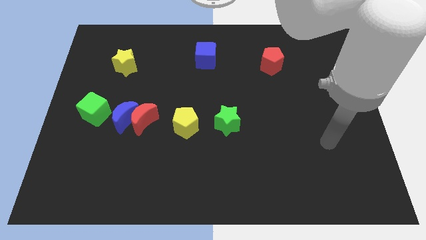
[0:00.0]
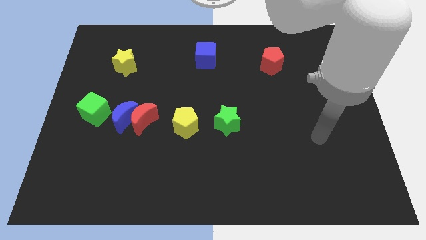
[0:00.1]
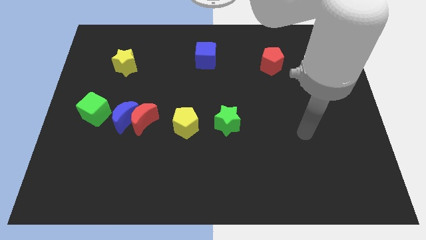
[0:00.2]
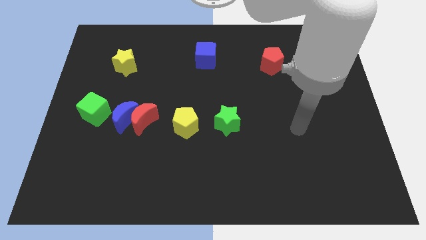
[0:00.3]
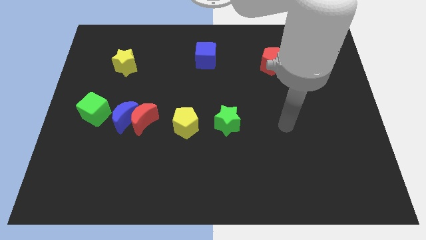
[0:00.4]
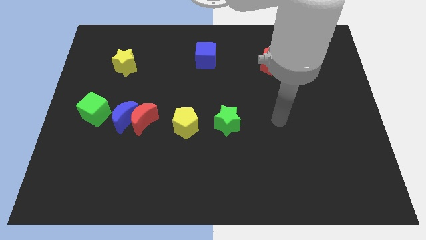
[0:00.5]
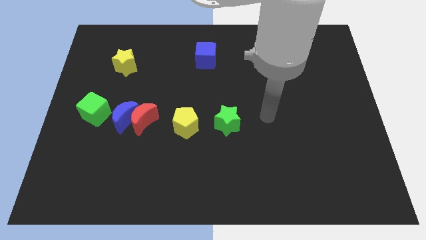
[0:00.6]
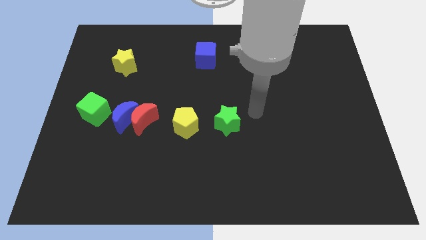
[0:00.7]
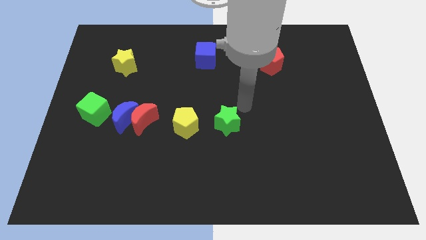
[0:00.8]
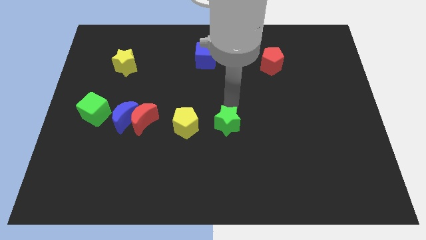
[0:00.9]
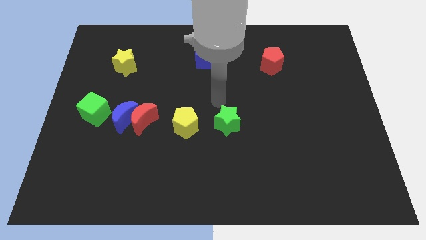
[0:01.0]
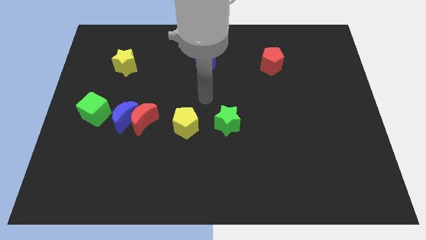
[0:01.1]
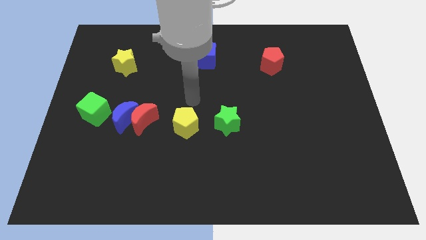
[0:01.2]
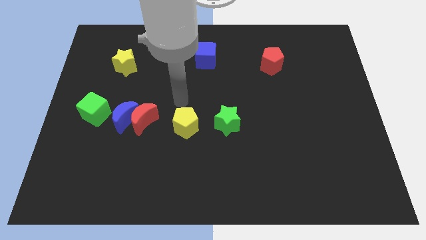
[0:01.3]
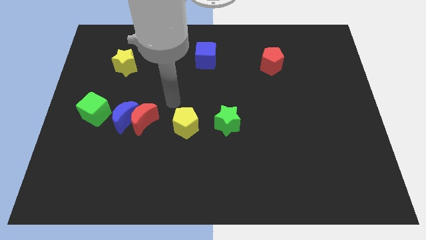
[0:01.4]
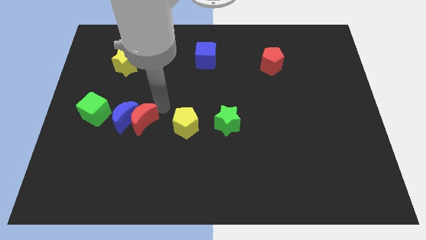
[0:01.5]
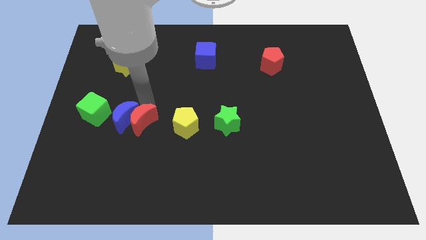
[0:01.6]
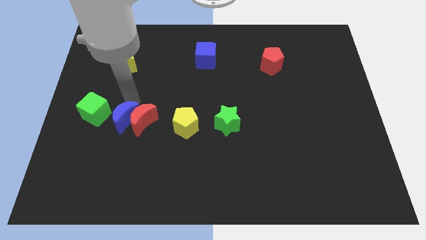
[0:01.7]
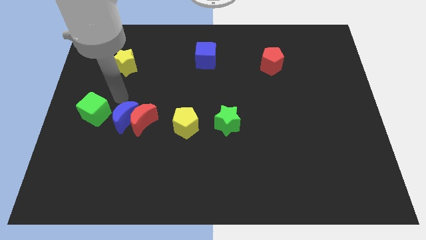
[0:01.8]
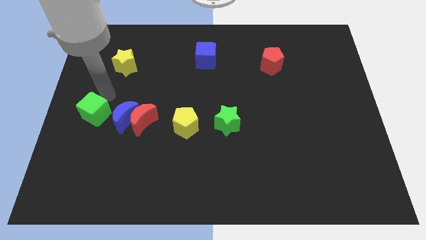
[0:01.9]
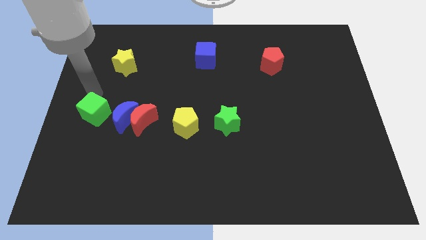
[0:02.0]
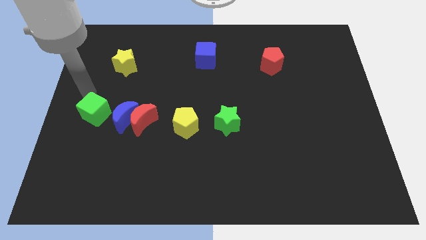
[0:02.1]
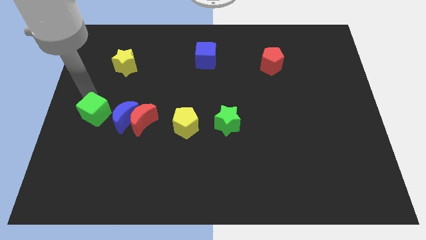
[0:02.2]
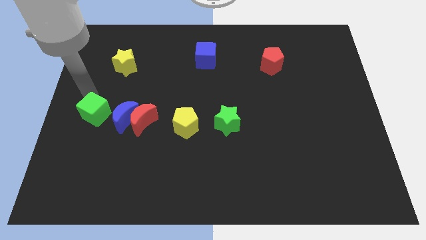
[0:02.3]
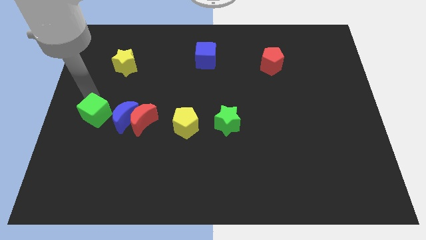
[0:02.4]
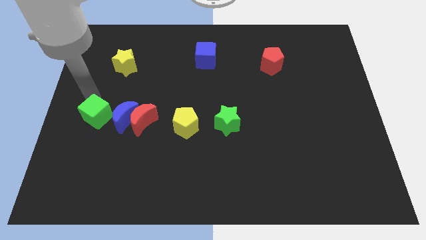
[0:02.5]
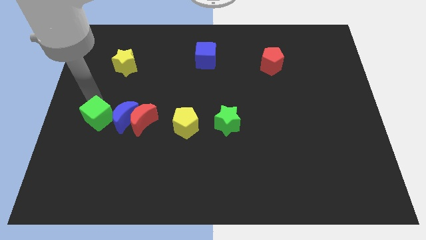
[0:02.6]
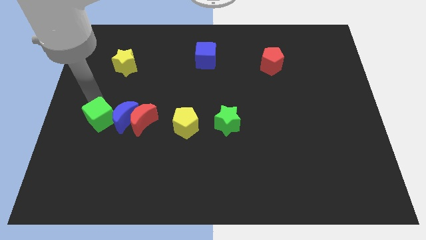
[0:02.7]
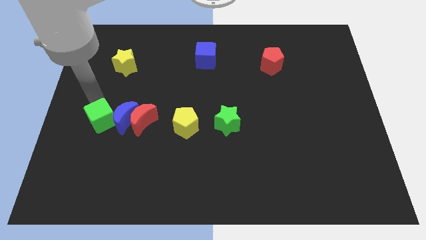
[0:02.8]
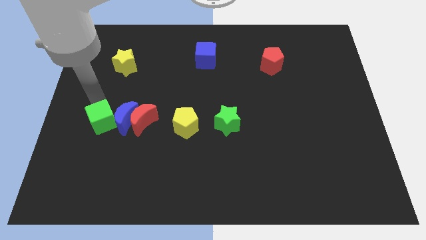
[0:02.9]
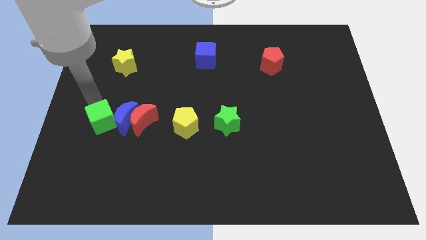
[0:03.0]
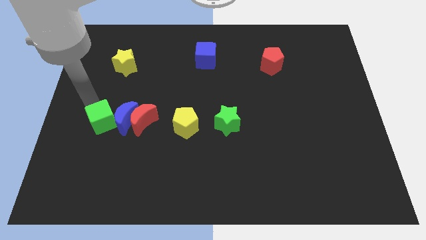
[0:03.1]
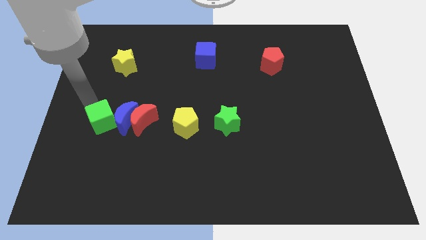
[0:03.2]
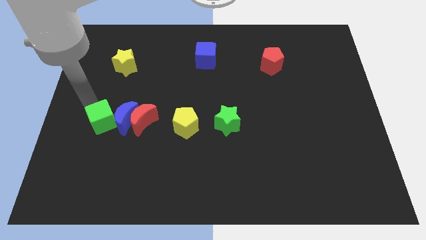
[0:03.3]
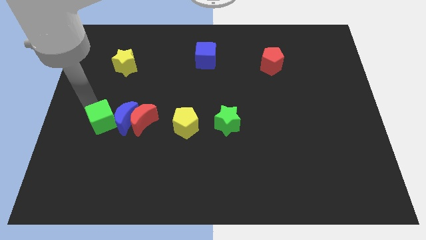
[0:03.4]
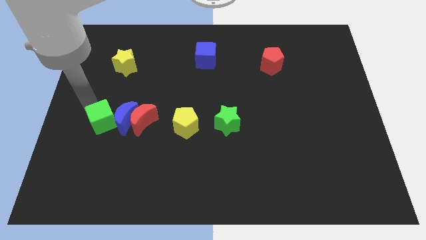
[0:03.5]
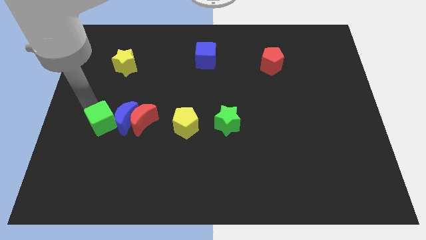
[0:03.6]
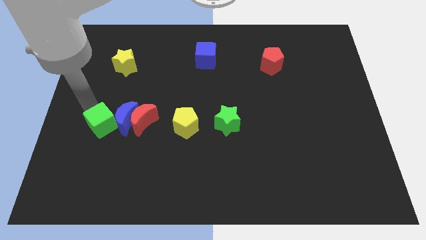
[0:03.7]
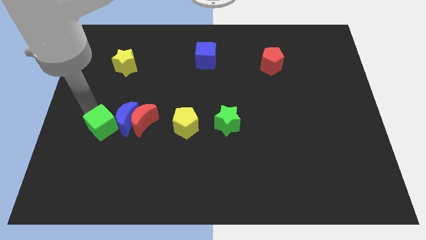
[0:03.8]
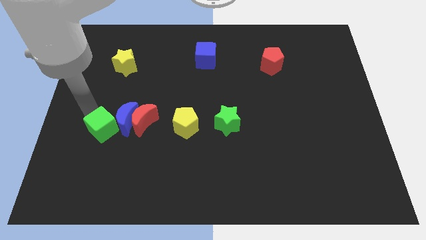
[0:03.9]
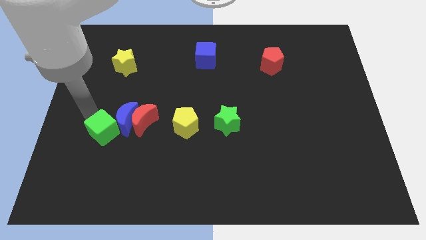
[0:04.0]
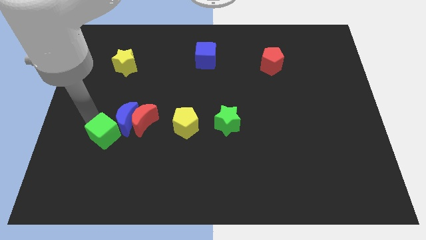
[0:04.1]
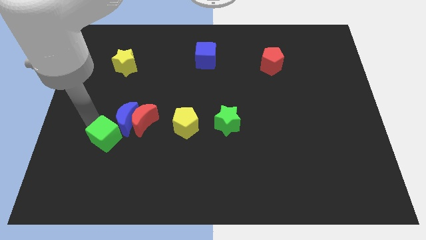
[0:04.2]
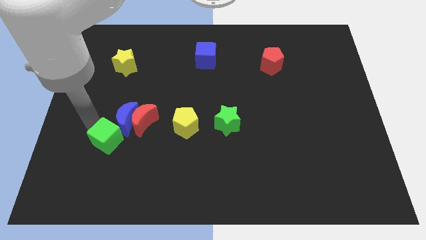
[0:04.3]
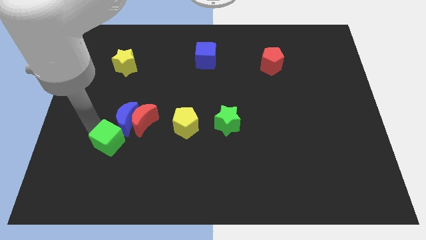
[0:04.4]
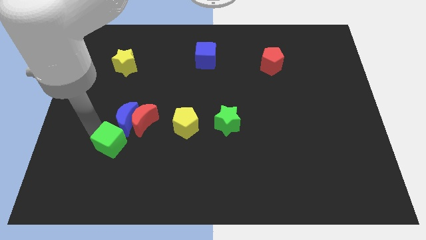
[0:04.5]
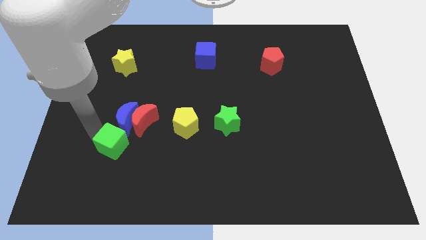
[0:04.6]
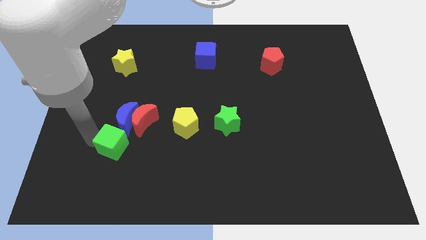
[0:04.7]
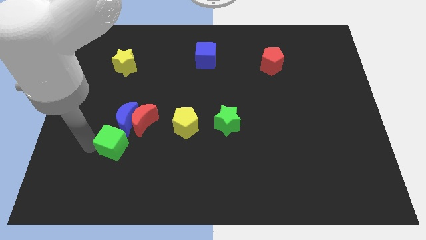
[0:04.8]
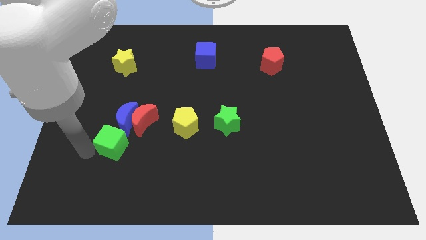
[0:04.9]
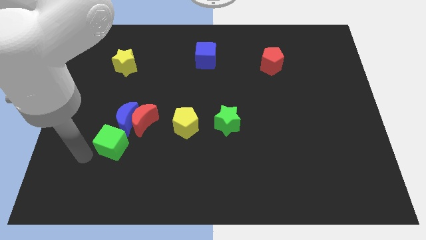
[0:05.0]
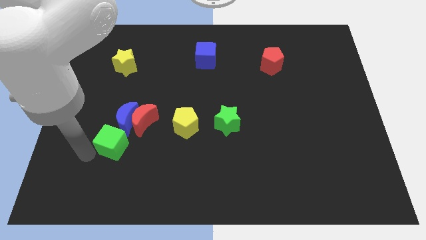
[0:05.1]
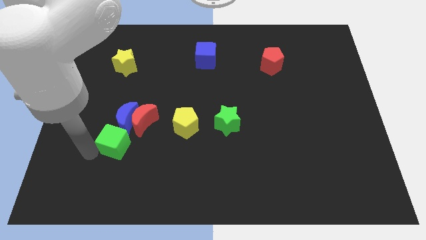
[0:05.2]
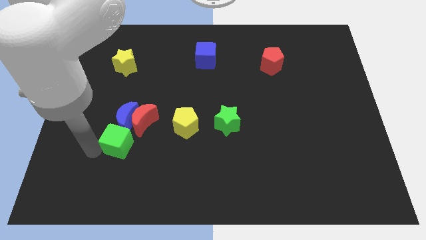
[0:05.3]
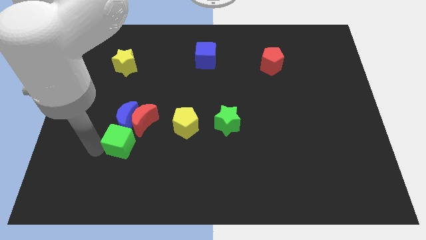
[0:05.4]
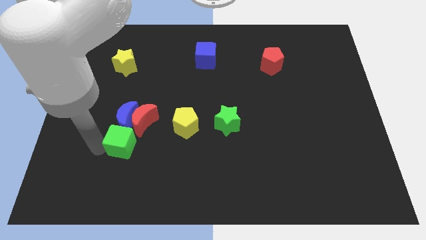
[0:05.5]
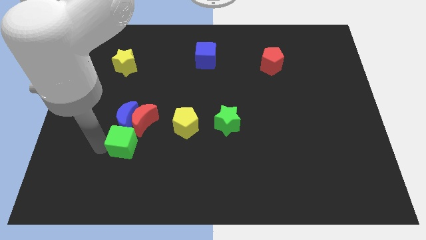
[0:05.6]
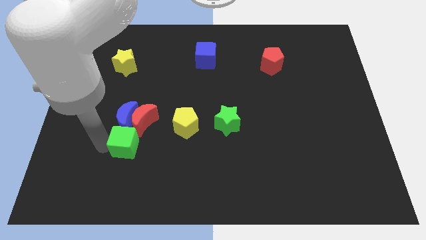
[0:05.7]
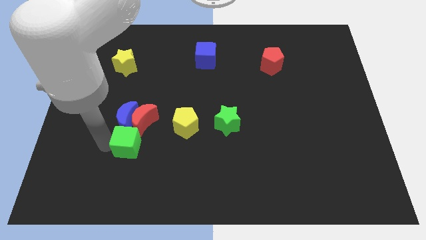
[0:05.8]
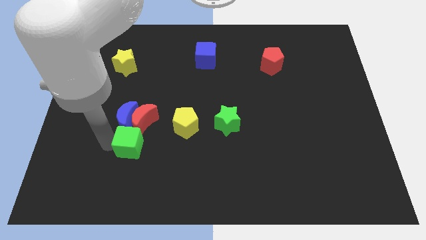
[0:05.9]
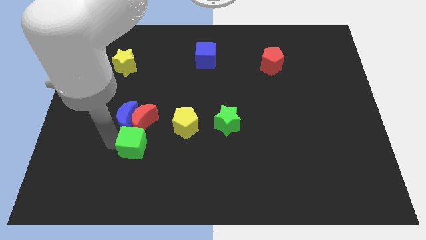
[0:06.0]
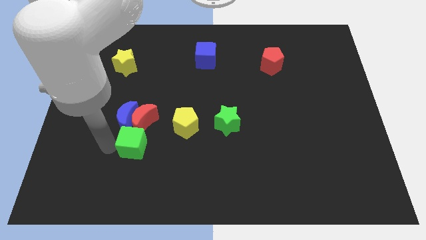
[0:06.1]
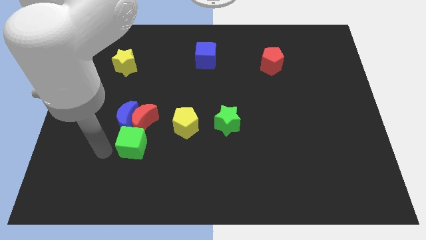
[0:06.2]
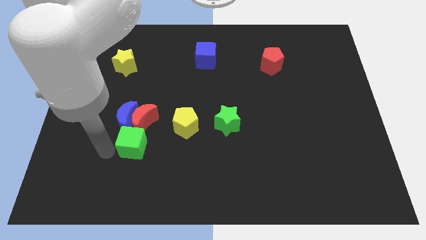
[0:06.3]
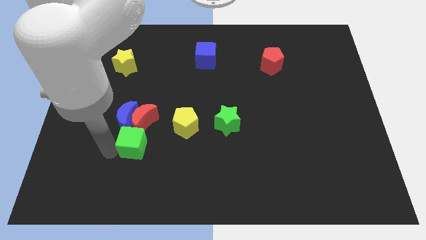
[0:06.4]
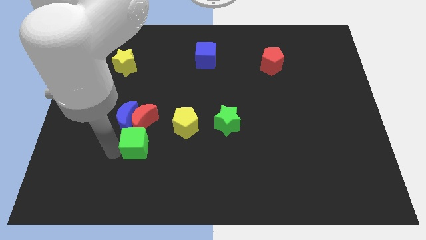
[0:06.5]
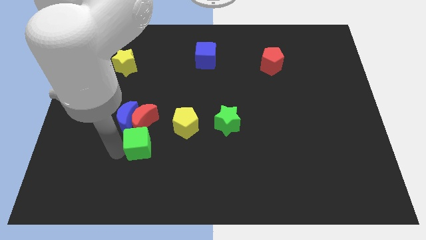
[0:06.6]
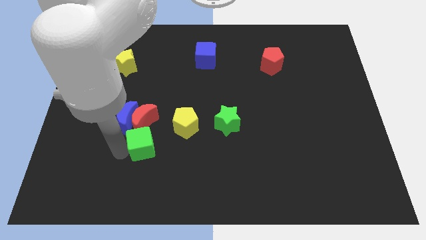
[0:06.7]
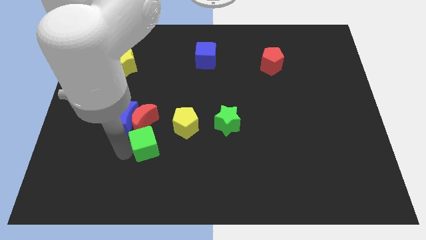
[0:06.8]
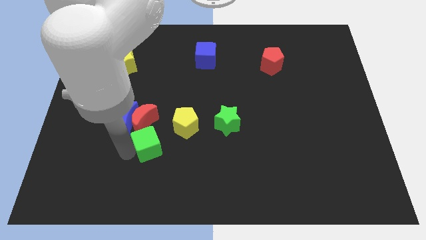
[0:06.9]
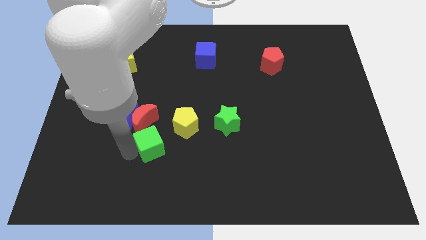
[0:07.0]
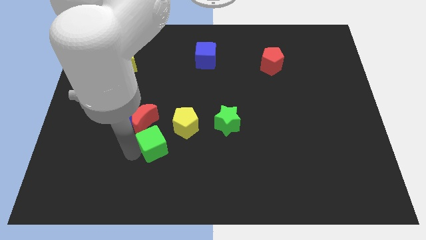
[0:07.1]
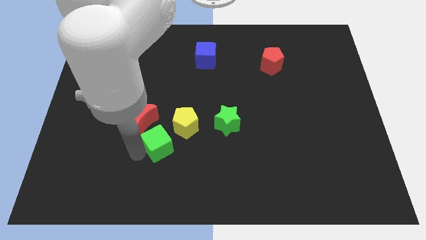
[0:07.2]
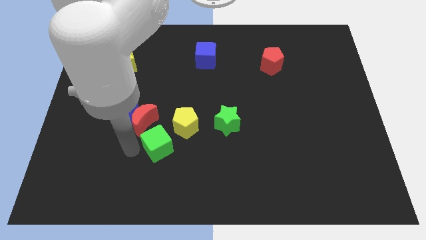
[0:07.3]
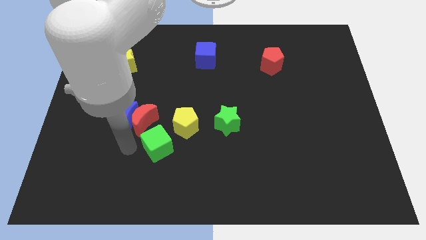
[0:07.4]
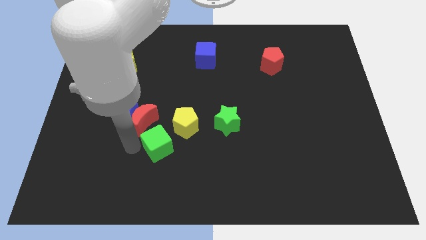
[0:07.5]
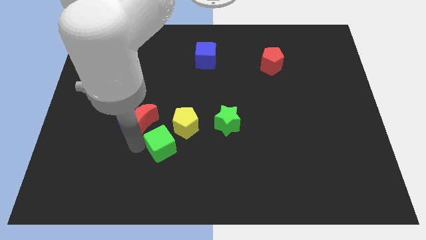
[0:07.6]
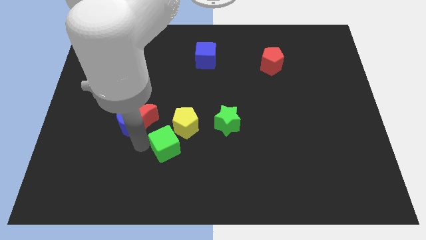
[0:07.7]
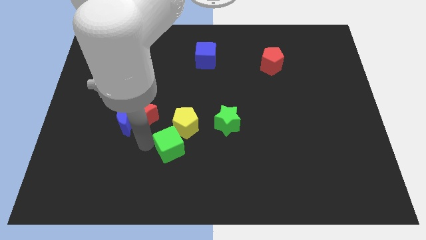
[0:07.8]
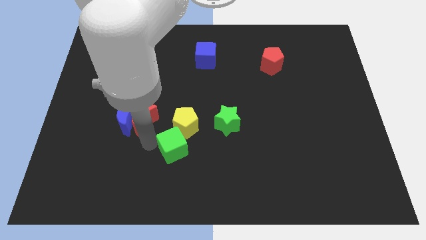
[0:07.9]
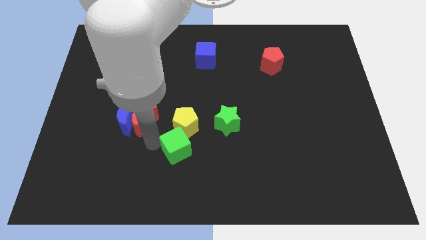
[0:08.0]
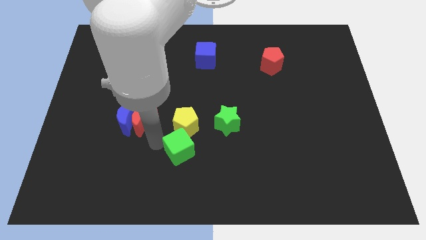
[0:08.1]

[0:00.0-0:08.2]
slide the green cube to the bottom left side of the green star
